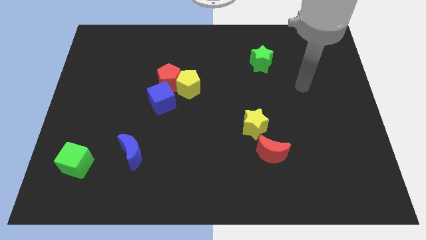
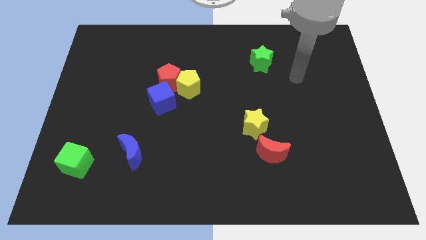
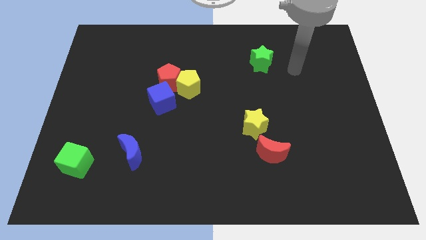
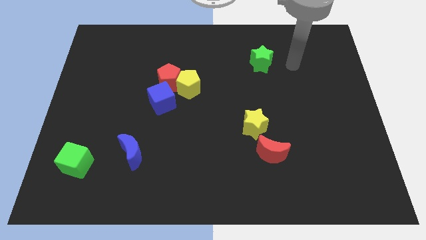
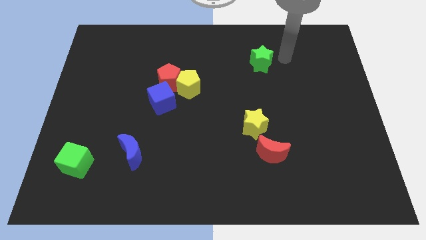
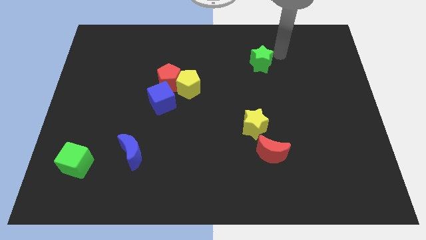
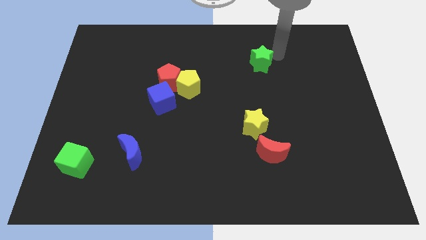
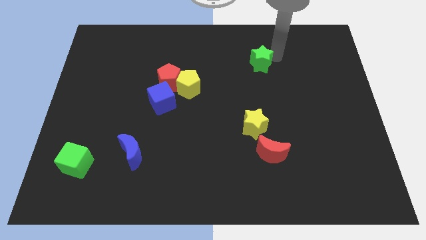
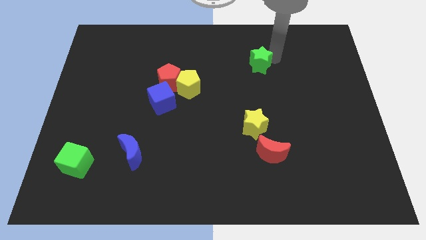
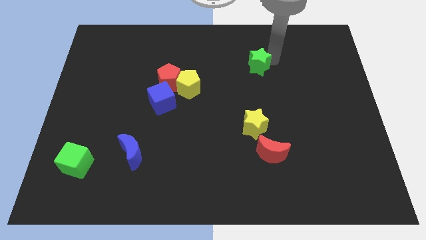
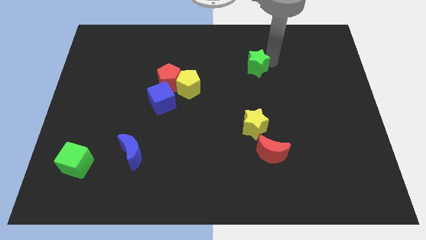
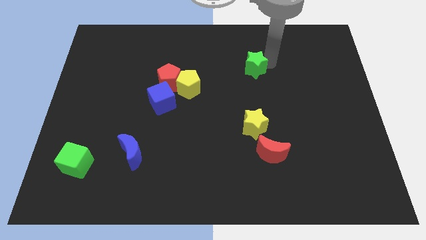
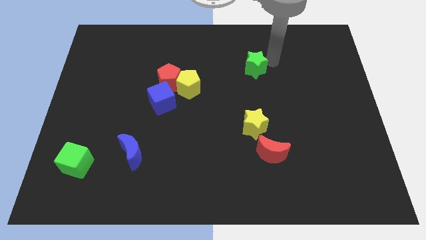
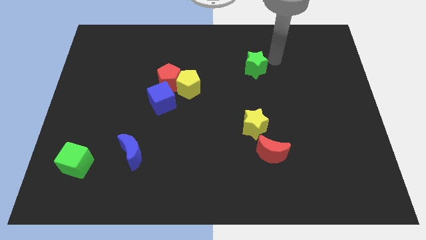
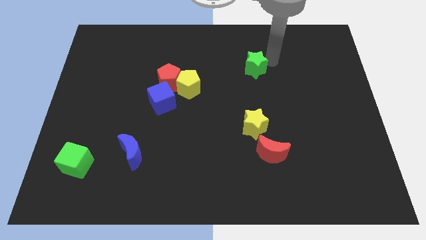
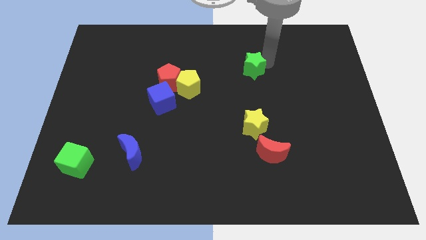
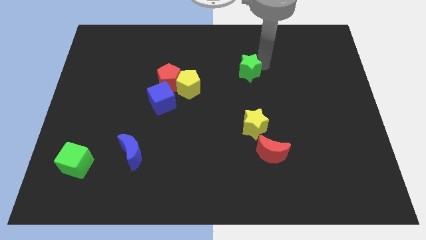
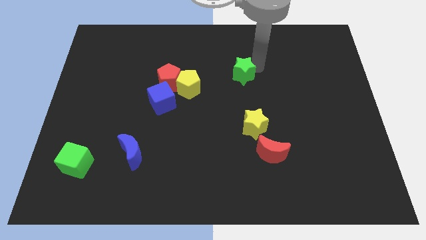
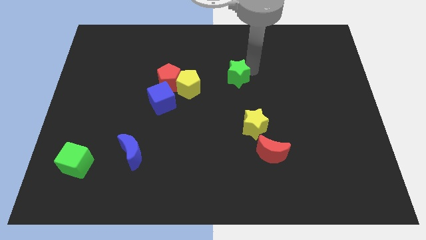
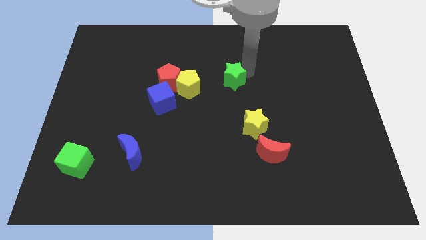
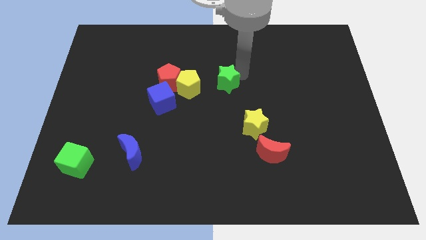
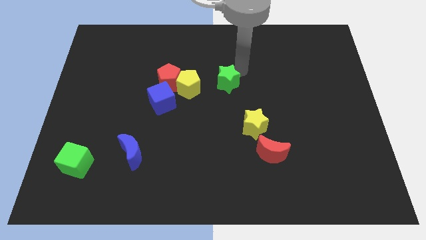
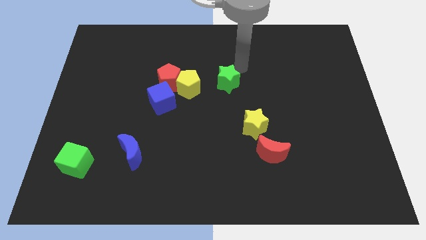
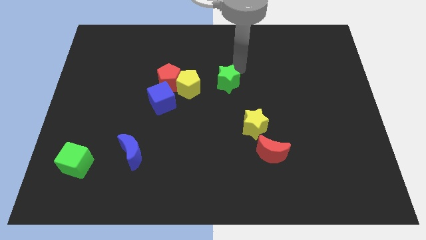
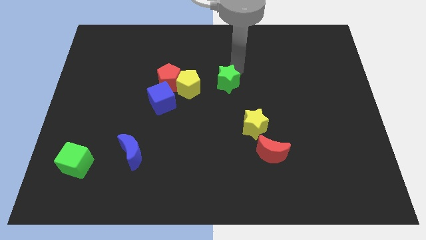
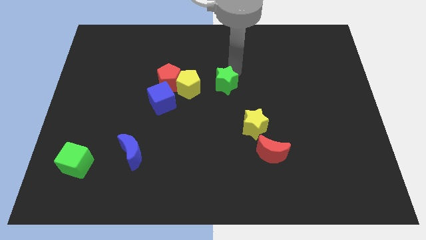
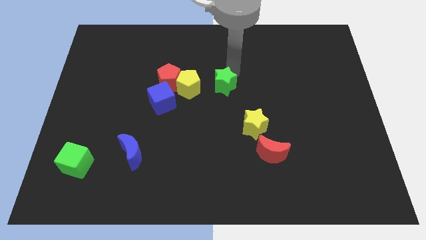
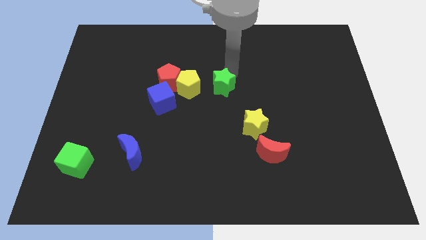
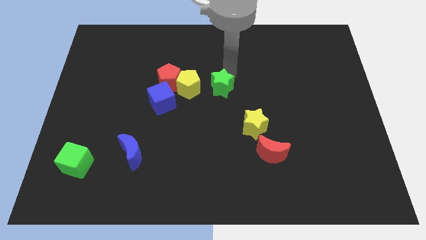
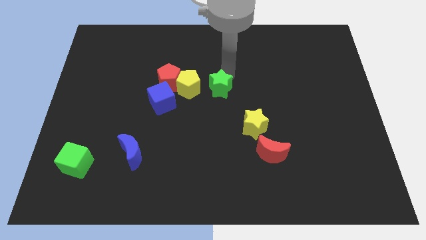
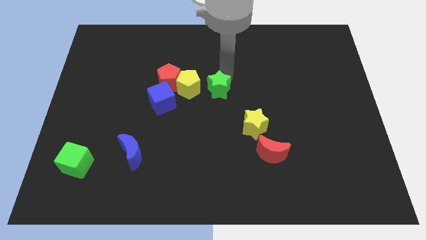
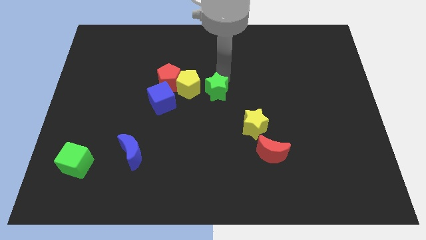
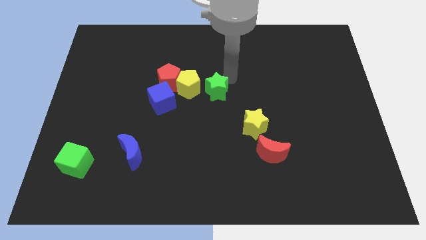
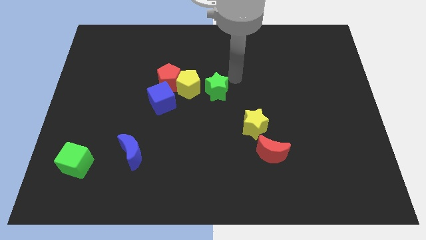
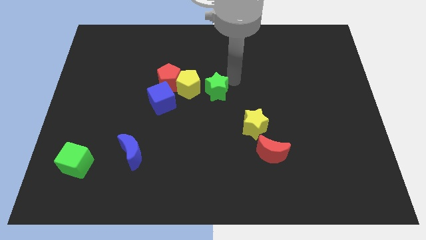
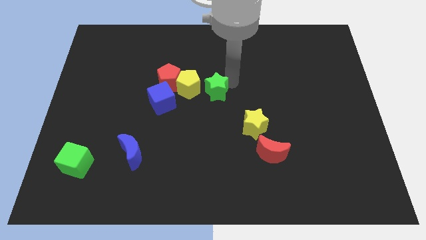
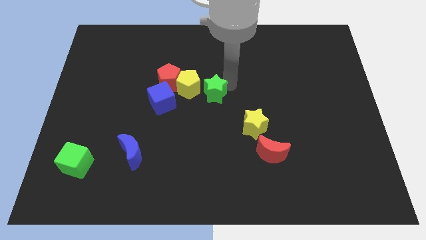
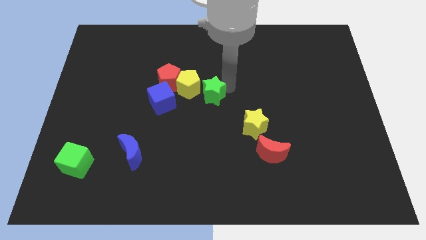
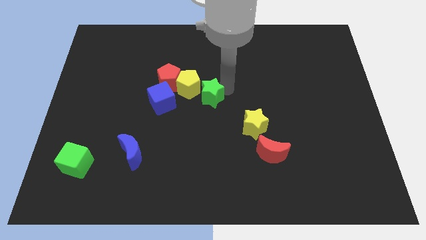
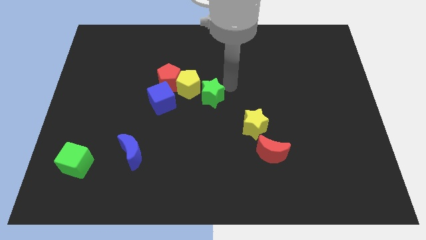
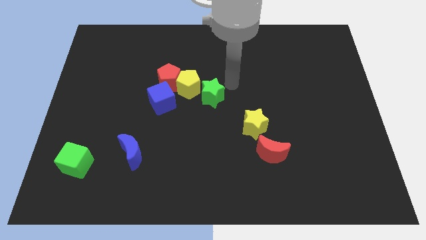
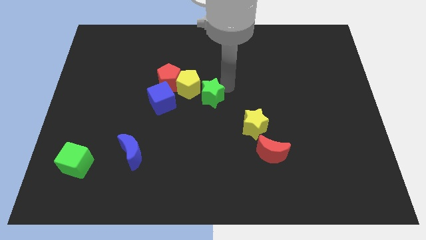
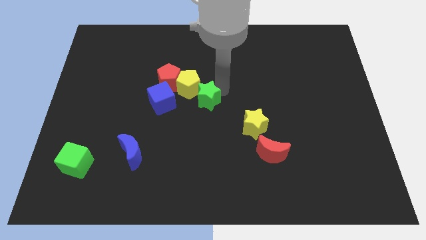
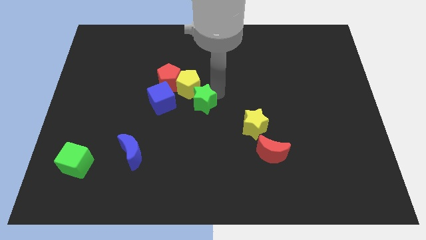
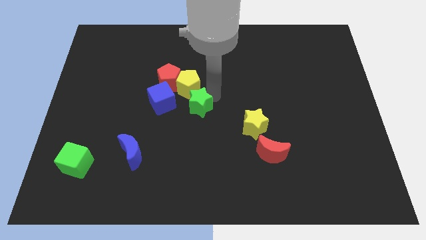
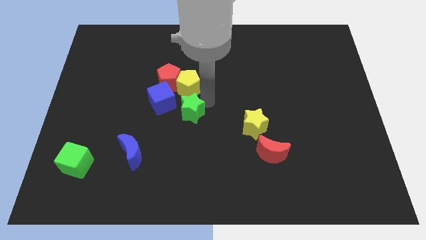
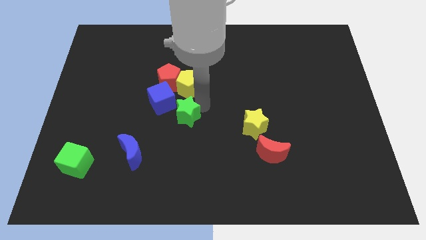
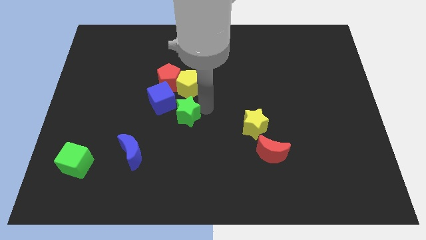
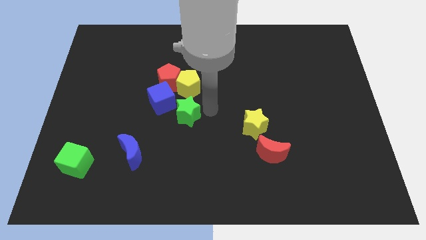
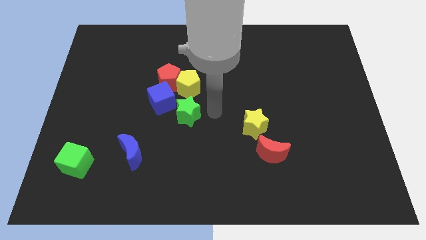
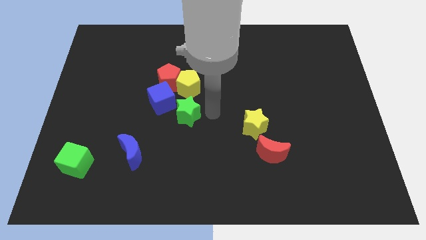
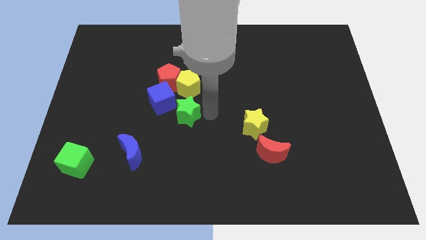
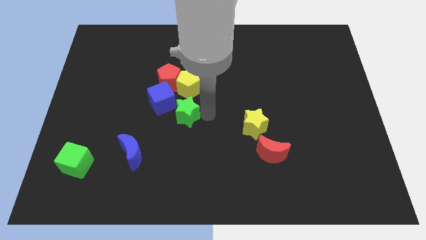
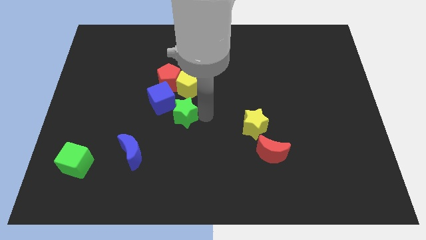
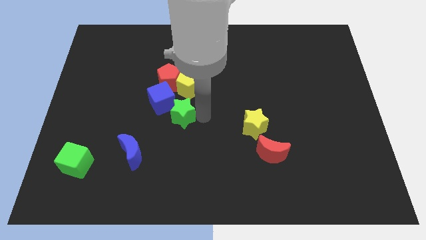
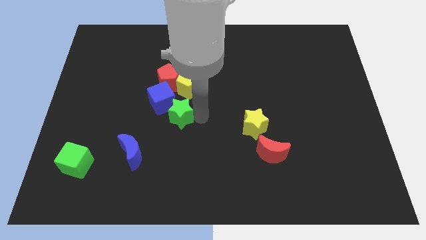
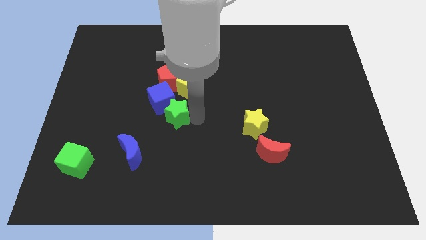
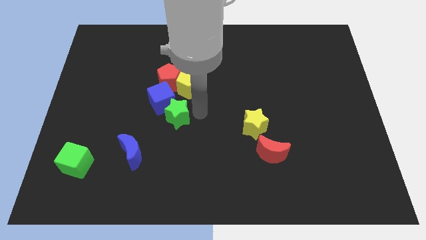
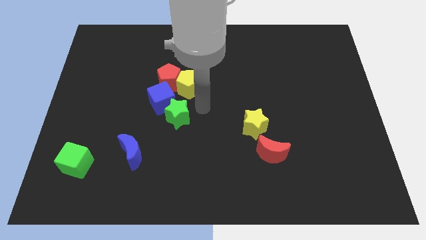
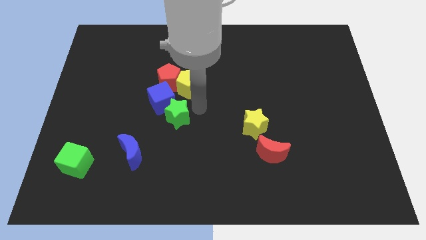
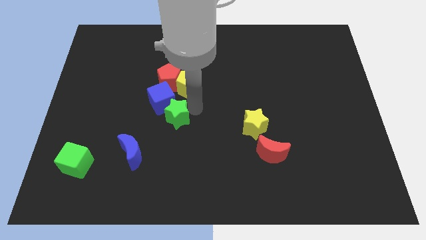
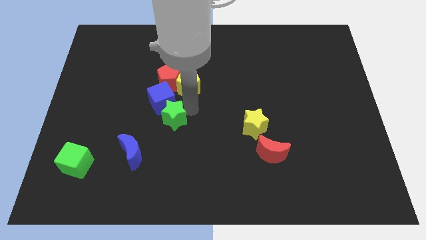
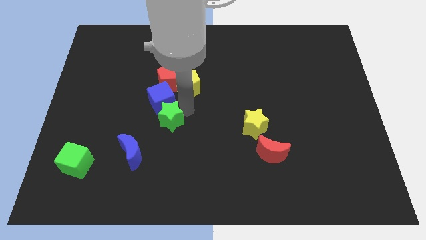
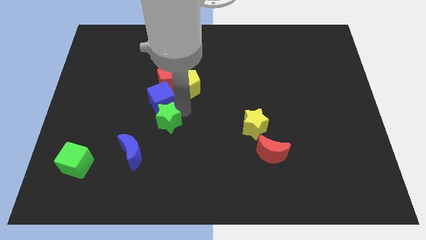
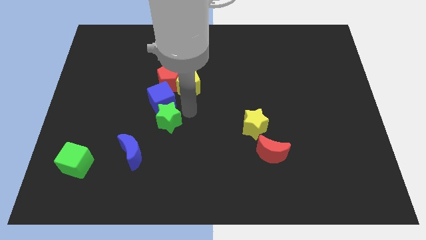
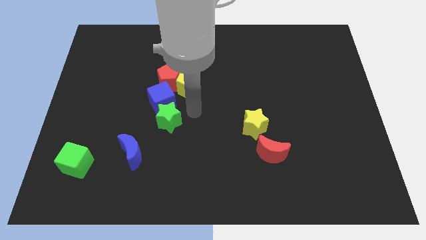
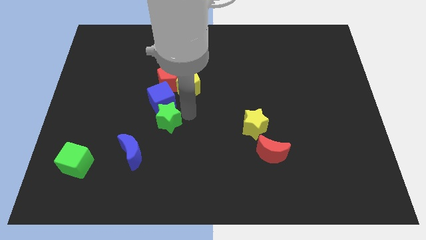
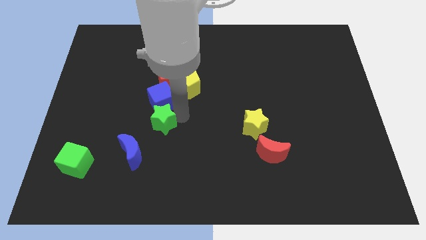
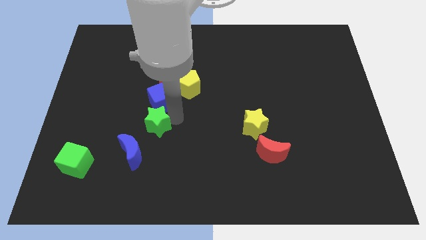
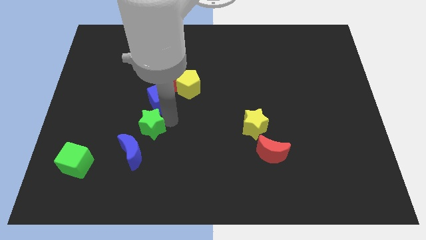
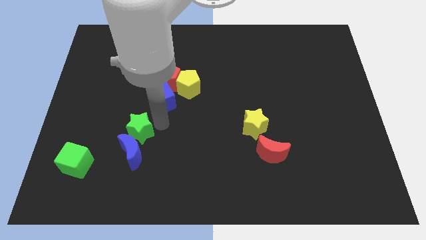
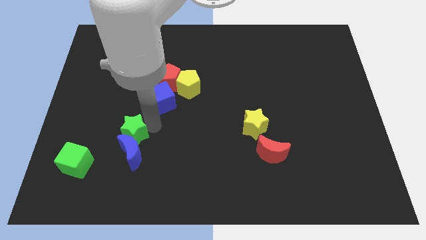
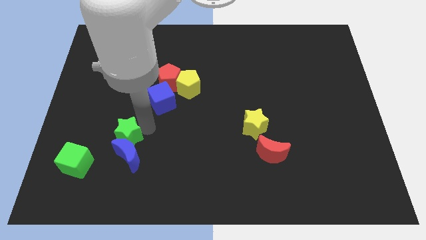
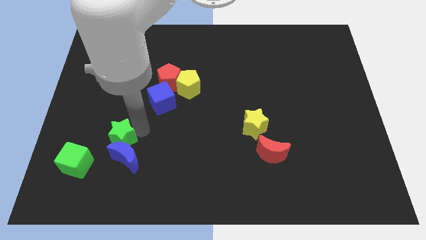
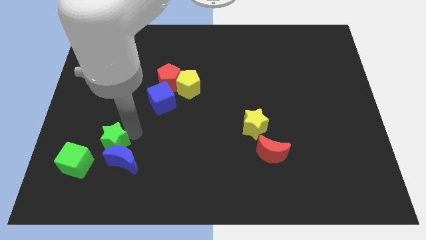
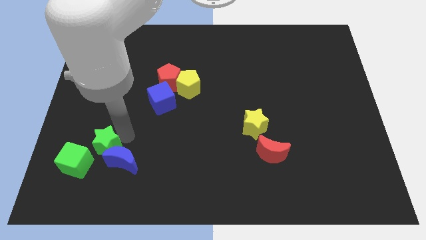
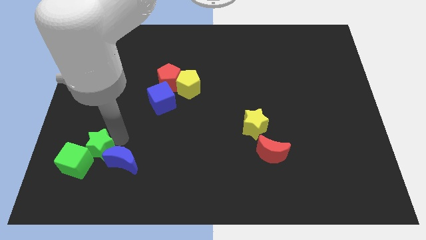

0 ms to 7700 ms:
move the green star to the green cube
